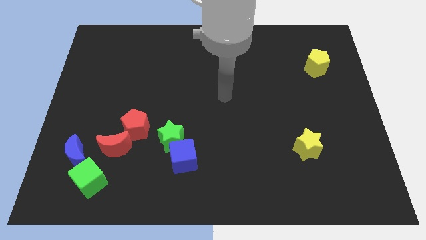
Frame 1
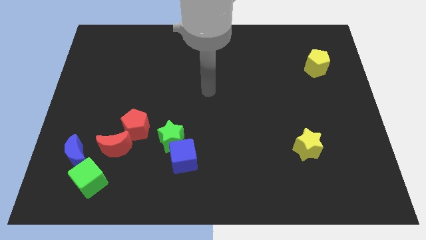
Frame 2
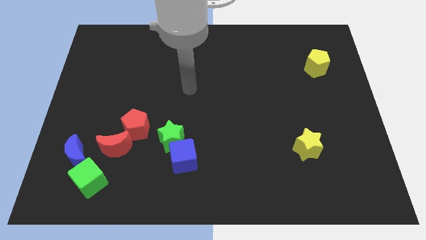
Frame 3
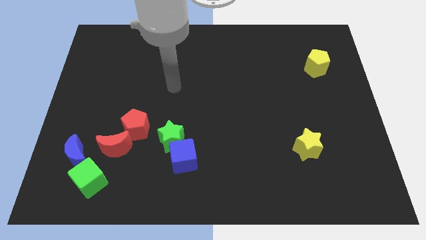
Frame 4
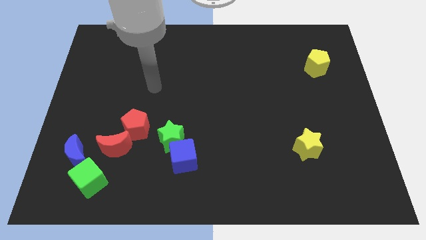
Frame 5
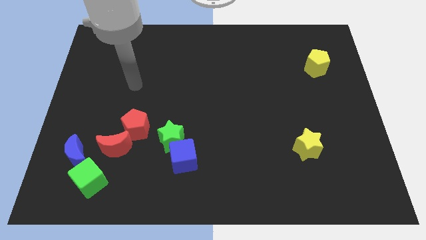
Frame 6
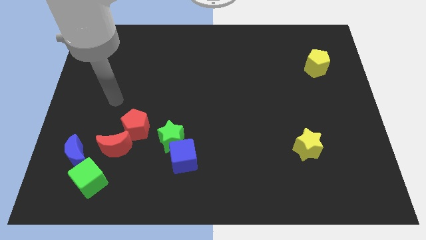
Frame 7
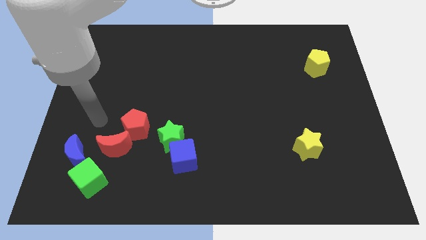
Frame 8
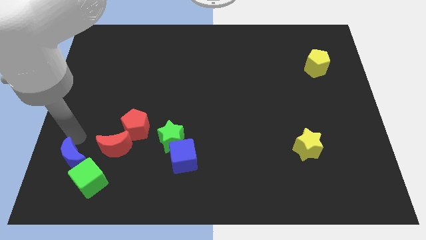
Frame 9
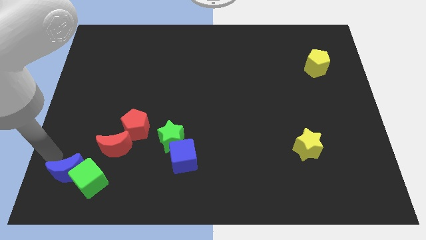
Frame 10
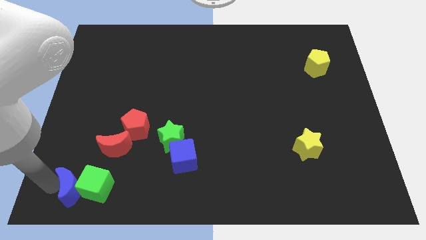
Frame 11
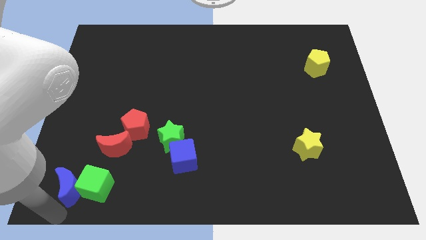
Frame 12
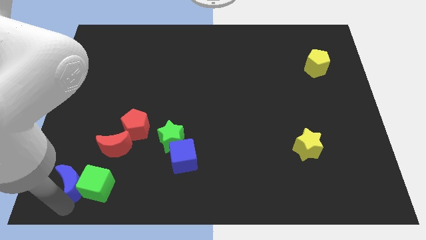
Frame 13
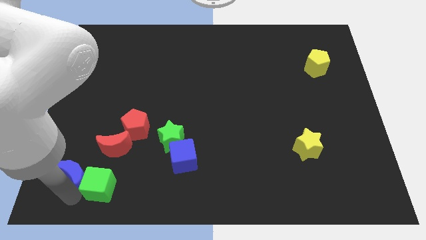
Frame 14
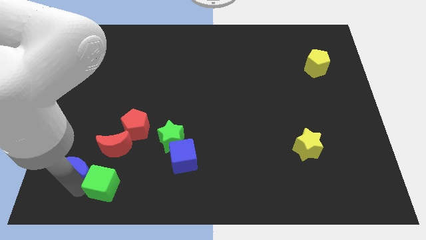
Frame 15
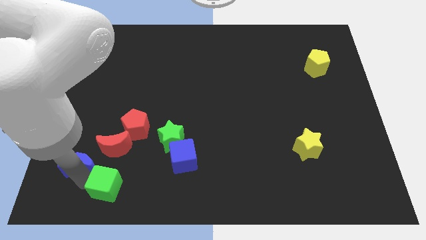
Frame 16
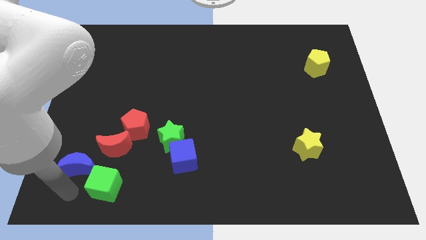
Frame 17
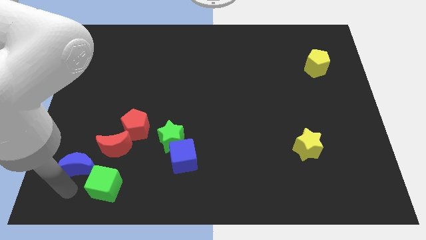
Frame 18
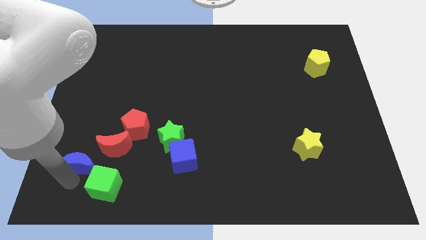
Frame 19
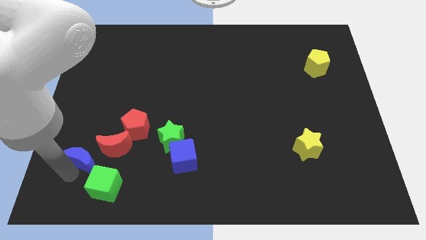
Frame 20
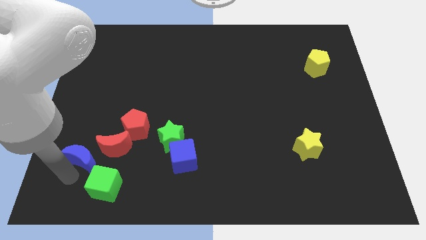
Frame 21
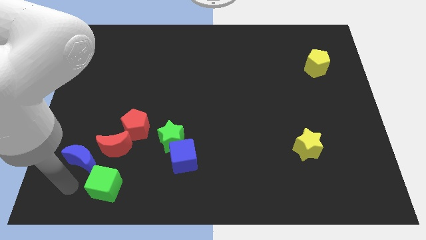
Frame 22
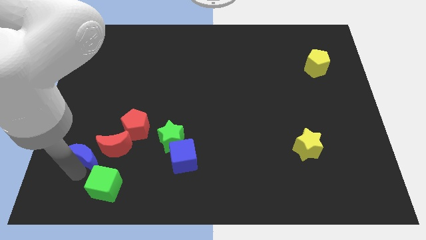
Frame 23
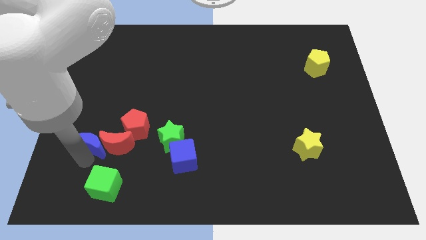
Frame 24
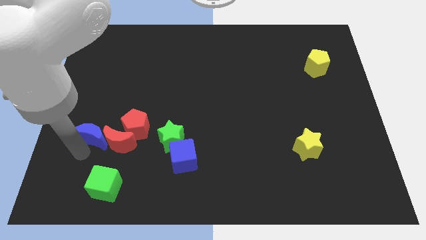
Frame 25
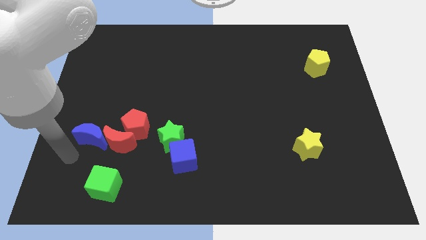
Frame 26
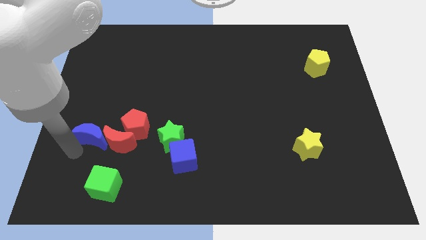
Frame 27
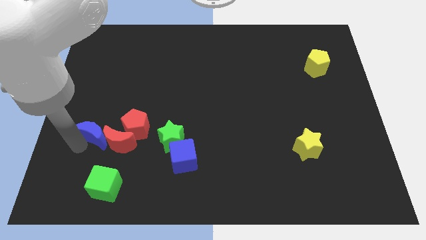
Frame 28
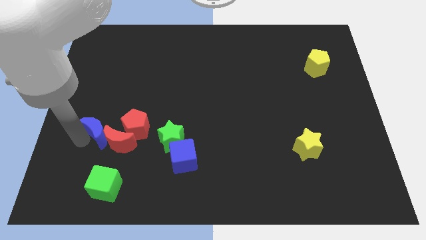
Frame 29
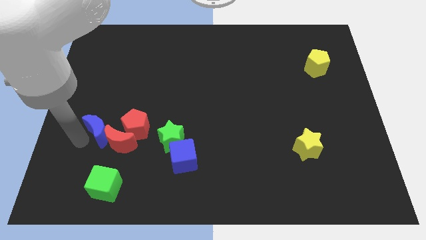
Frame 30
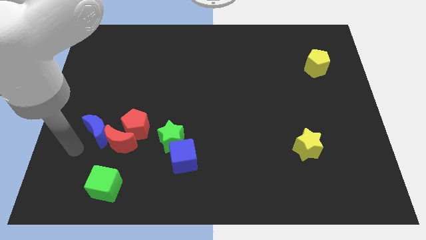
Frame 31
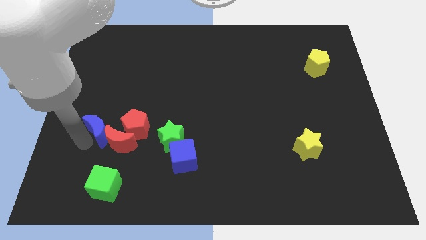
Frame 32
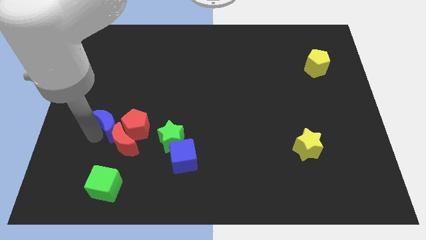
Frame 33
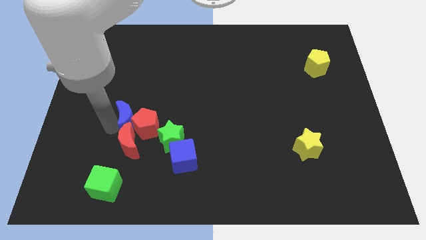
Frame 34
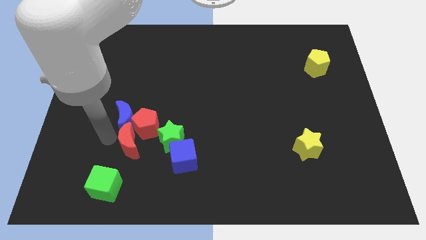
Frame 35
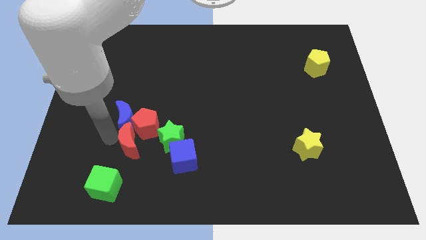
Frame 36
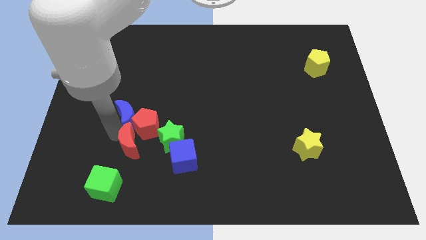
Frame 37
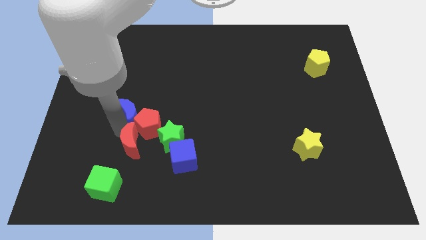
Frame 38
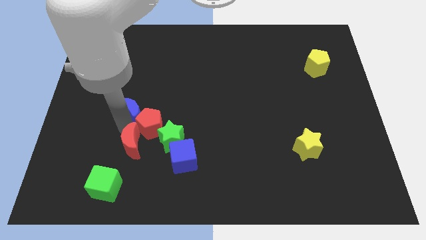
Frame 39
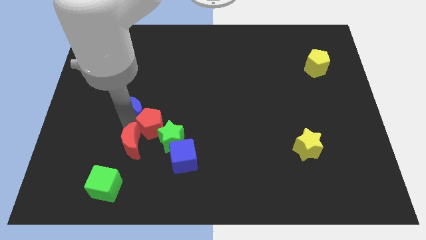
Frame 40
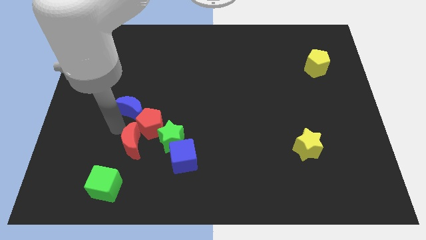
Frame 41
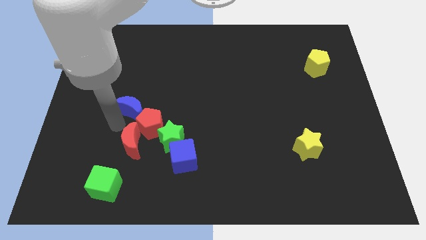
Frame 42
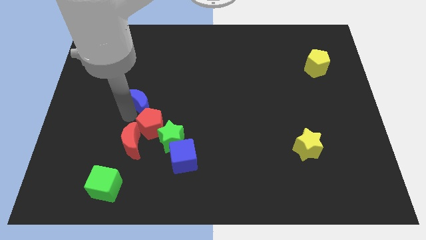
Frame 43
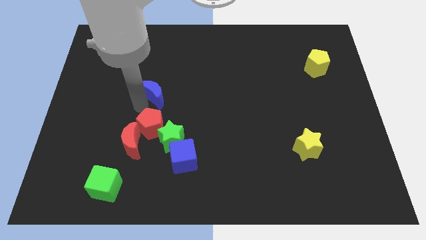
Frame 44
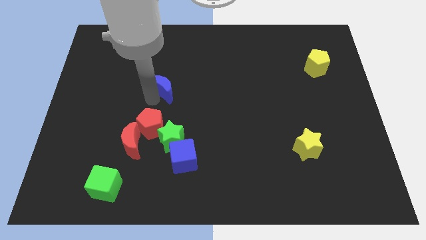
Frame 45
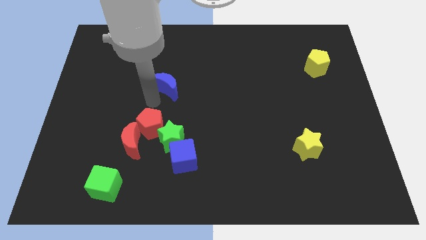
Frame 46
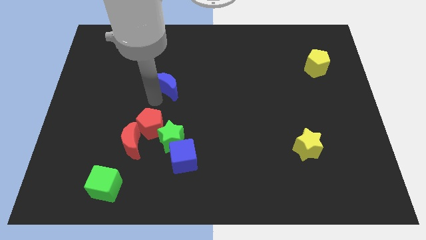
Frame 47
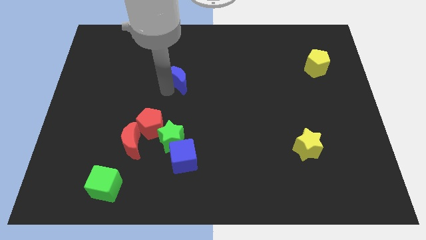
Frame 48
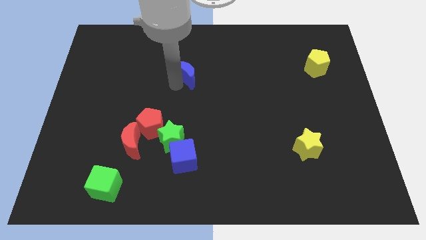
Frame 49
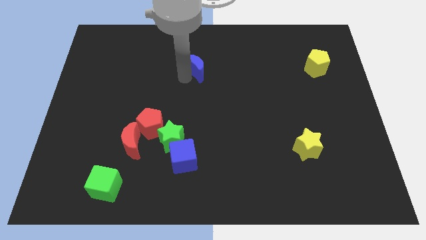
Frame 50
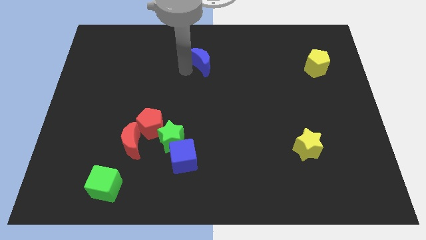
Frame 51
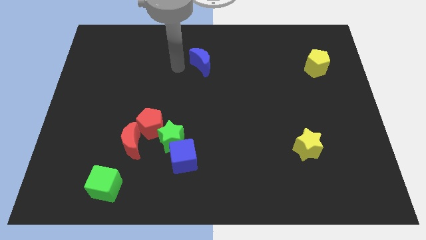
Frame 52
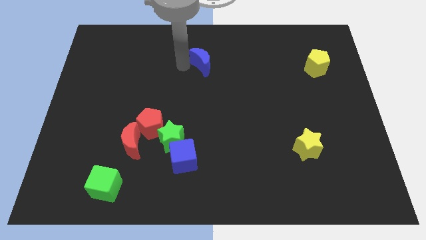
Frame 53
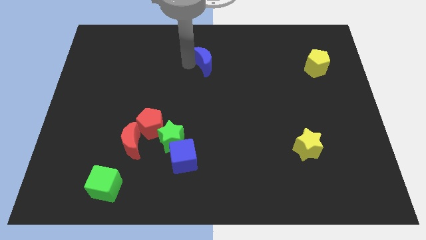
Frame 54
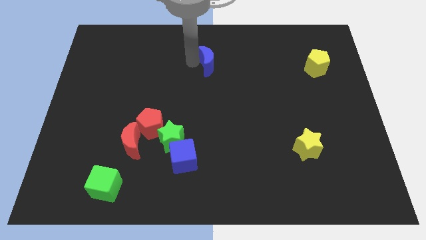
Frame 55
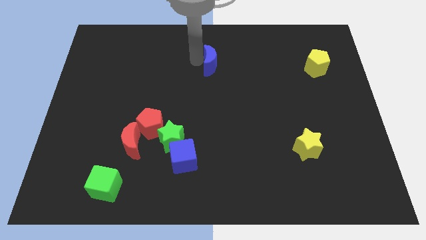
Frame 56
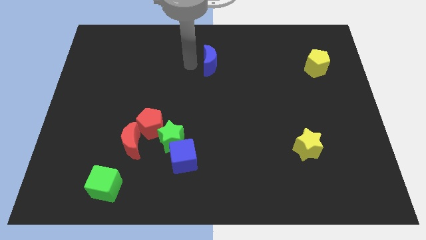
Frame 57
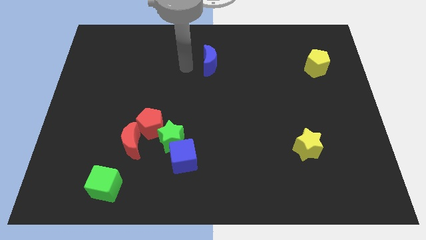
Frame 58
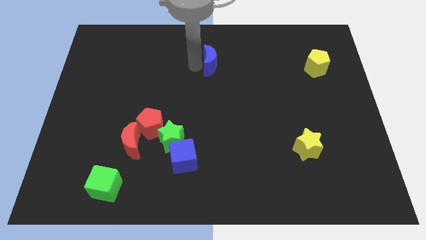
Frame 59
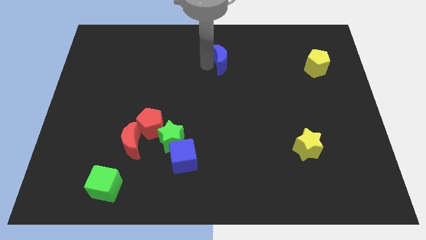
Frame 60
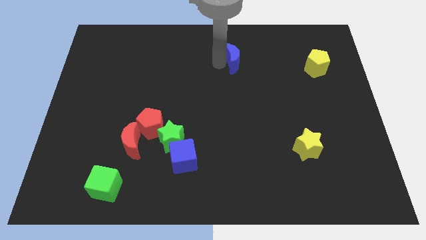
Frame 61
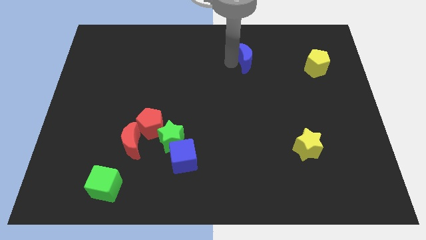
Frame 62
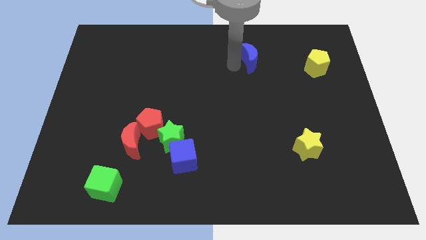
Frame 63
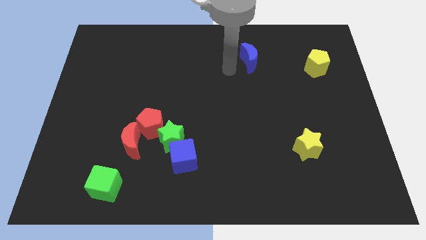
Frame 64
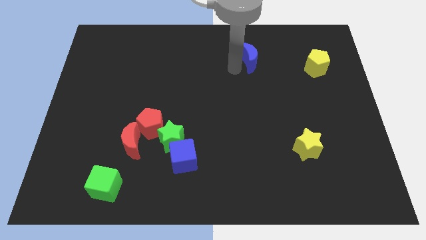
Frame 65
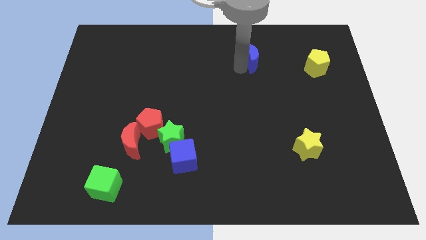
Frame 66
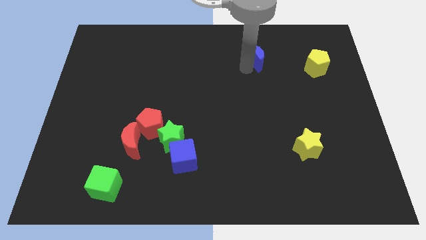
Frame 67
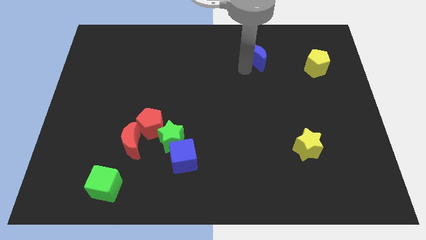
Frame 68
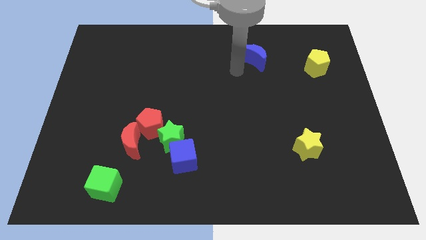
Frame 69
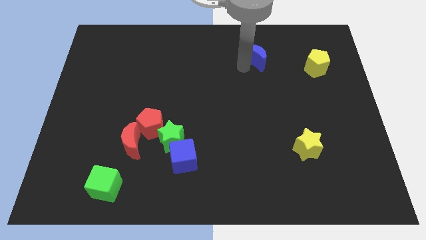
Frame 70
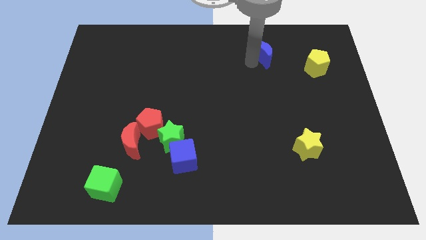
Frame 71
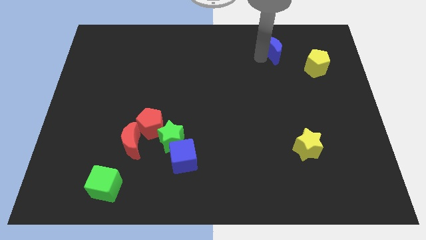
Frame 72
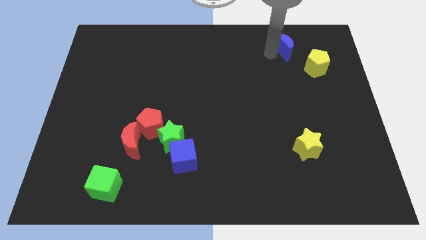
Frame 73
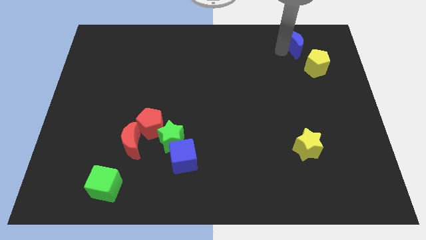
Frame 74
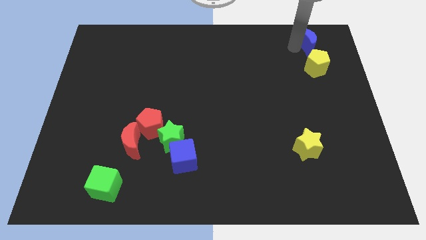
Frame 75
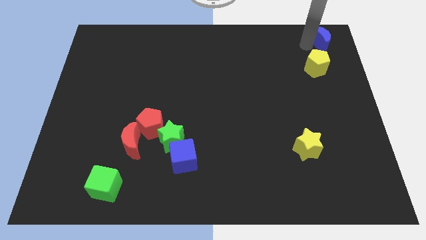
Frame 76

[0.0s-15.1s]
move the blue moon to the upper right corner
